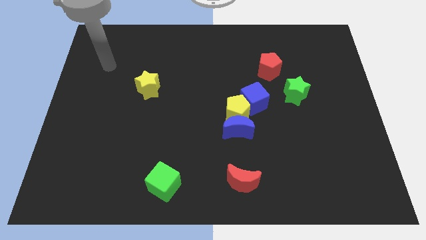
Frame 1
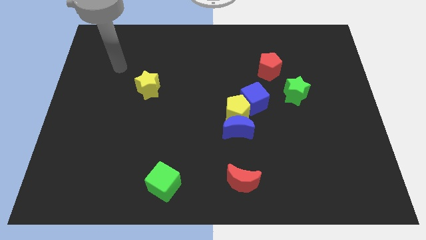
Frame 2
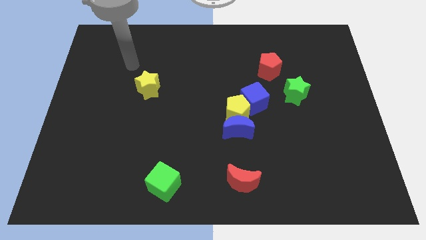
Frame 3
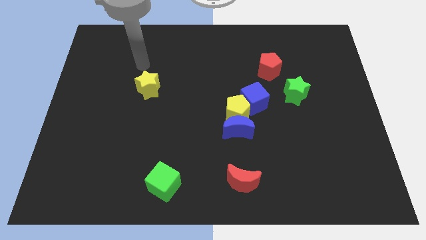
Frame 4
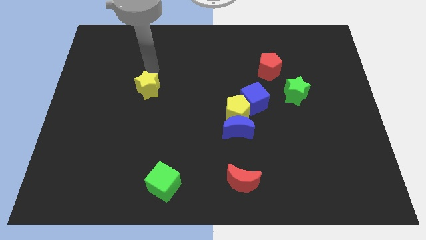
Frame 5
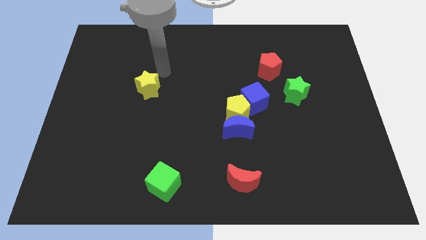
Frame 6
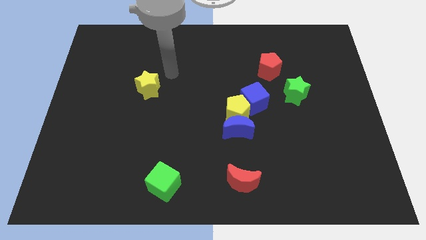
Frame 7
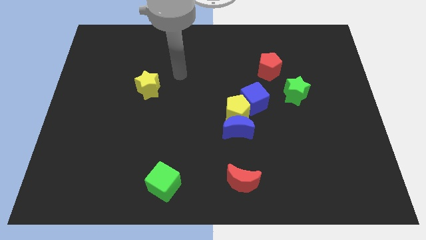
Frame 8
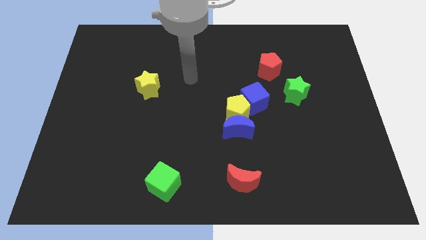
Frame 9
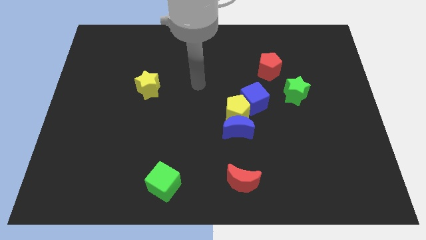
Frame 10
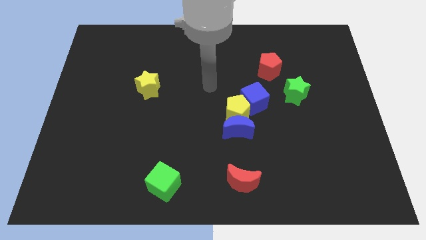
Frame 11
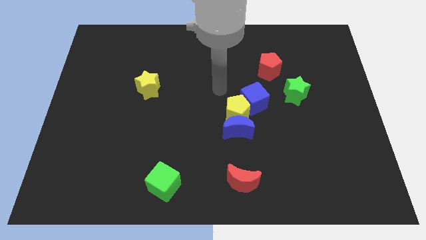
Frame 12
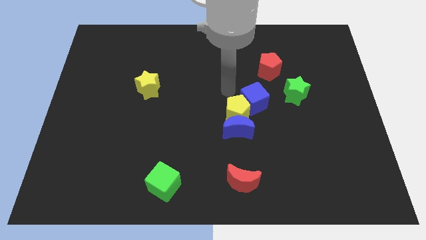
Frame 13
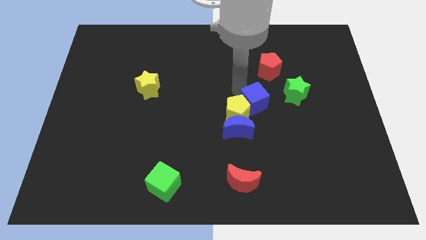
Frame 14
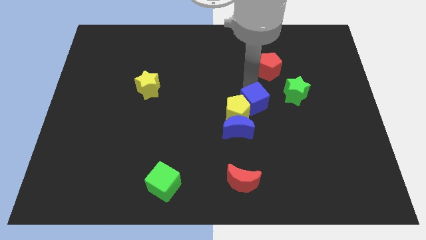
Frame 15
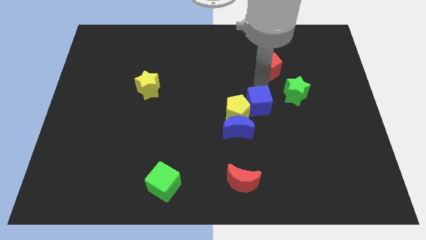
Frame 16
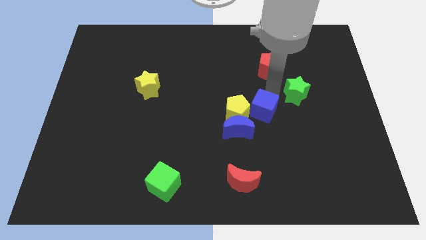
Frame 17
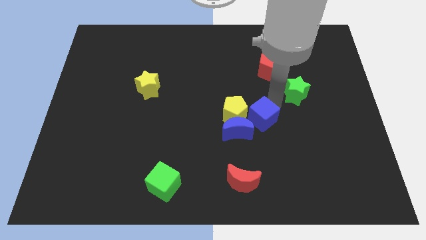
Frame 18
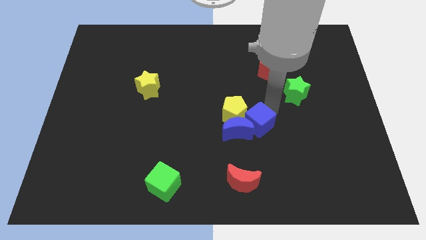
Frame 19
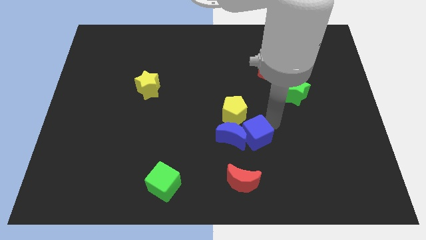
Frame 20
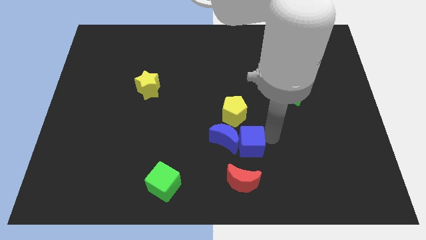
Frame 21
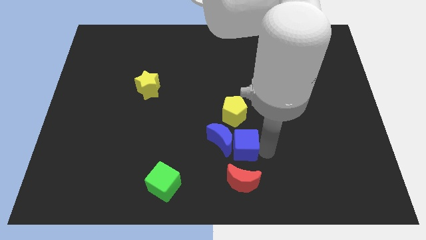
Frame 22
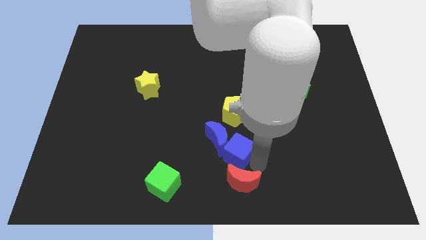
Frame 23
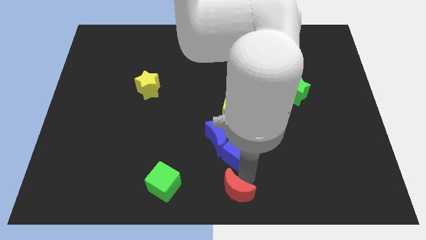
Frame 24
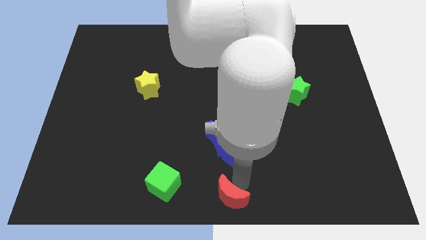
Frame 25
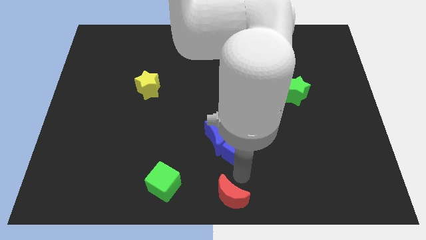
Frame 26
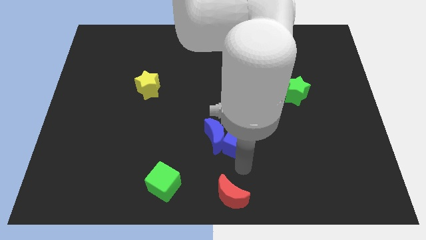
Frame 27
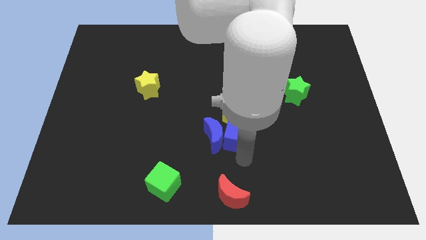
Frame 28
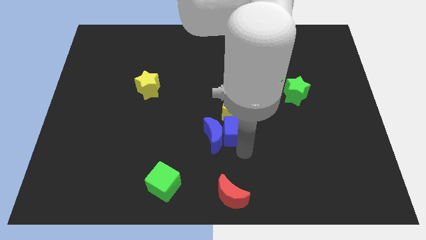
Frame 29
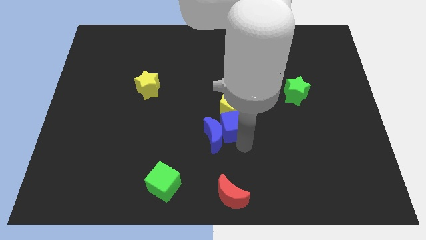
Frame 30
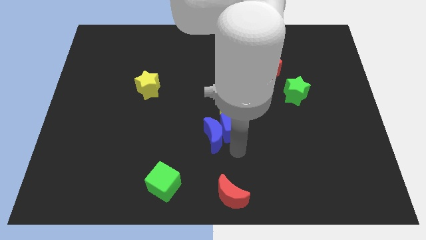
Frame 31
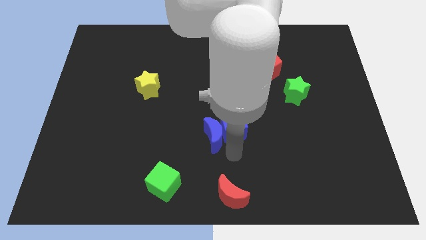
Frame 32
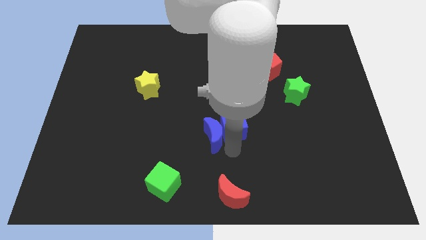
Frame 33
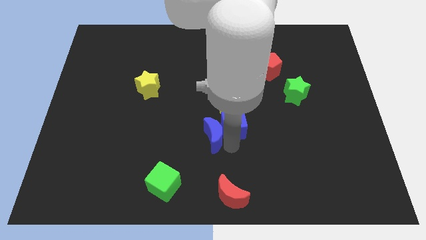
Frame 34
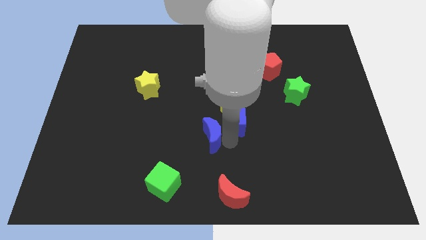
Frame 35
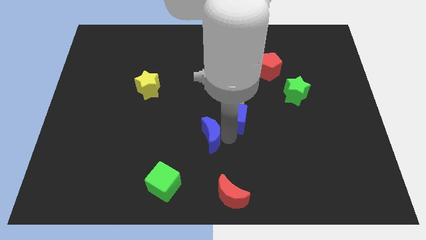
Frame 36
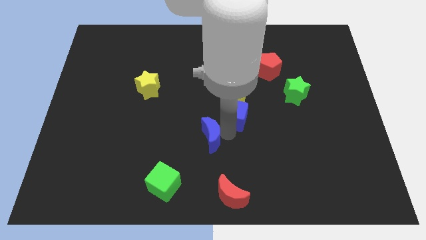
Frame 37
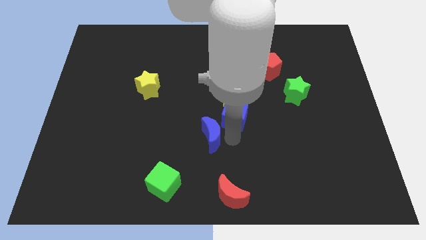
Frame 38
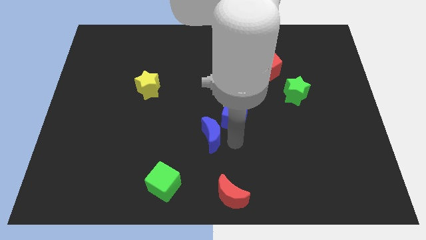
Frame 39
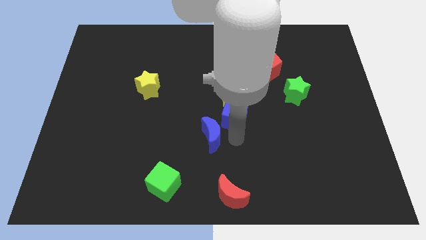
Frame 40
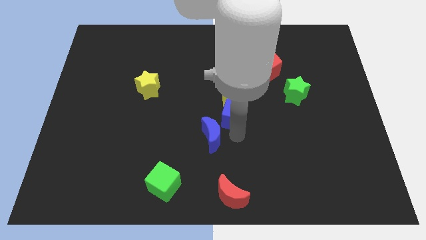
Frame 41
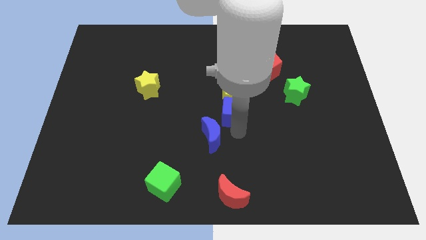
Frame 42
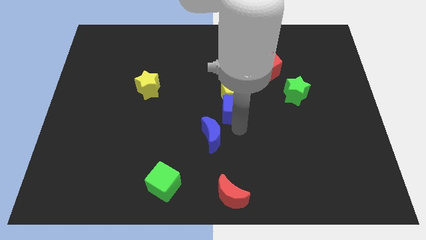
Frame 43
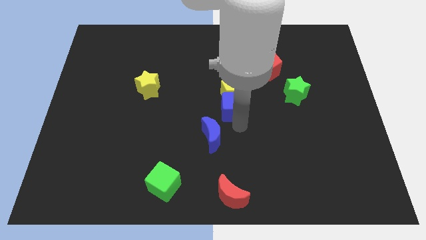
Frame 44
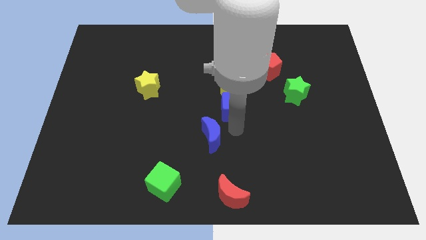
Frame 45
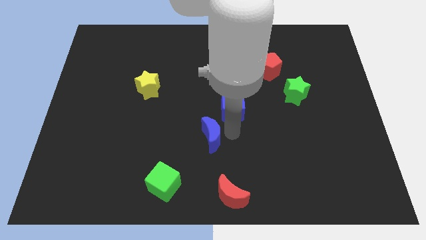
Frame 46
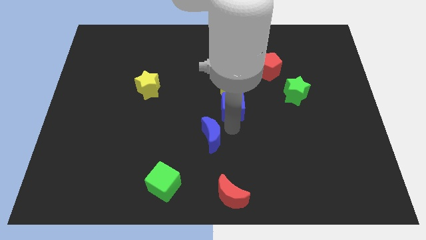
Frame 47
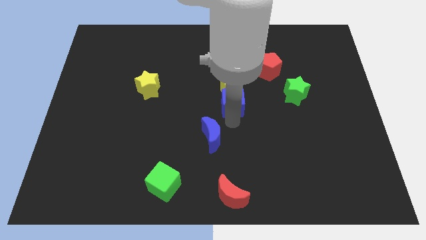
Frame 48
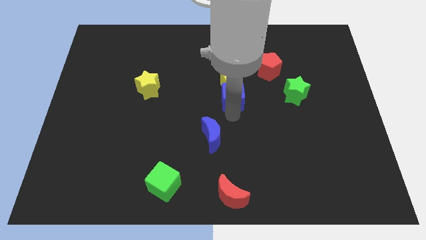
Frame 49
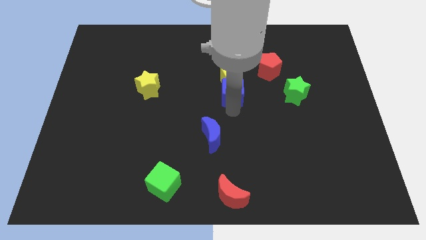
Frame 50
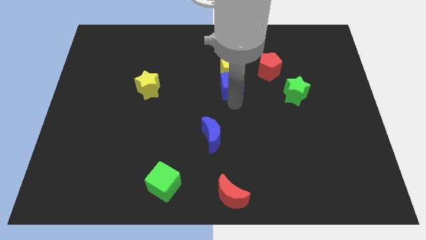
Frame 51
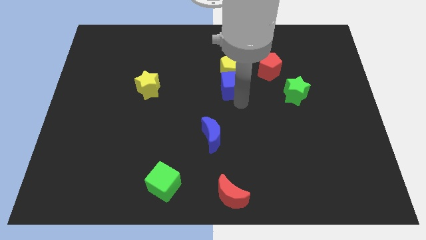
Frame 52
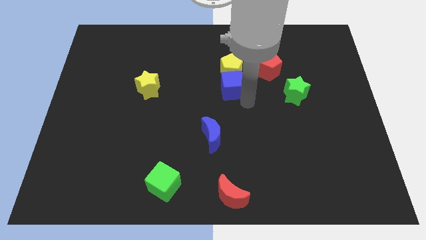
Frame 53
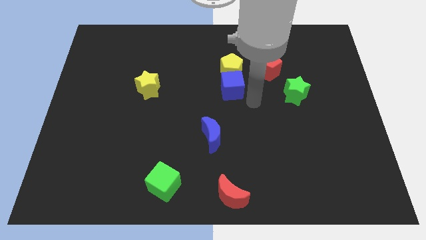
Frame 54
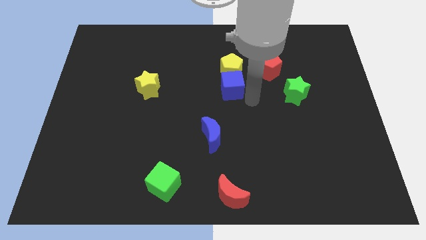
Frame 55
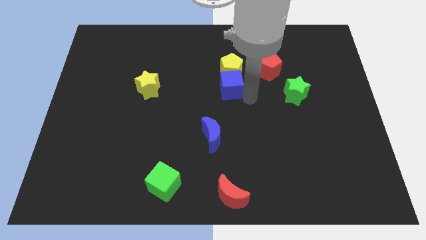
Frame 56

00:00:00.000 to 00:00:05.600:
move the blue cube a bit upwards and to the left

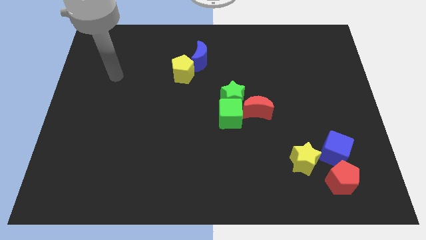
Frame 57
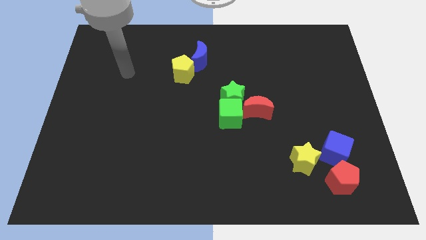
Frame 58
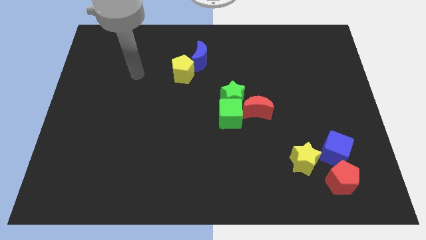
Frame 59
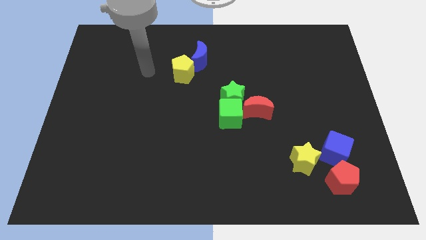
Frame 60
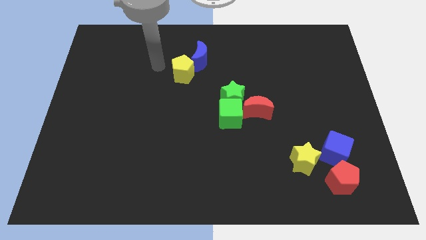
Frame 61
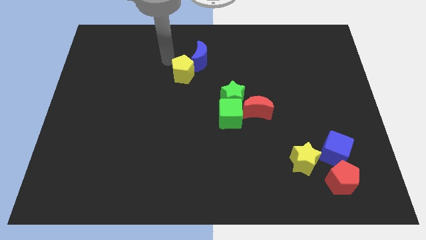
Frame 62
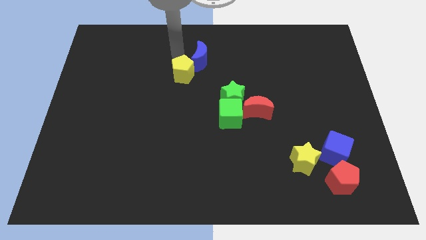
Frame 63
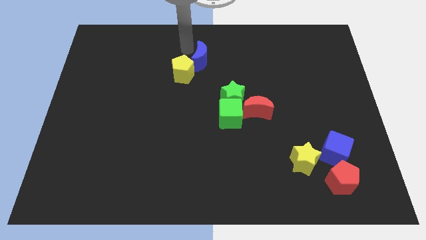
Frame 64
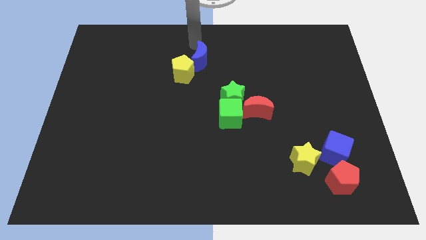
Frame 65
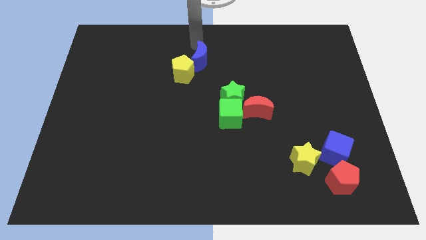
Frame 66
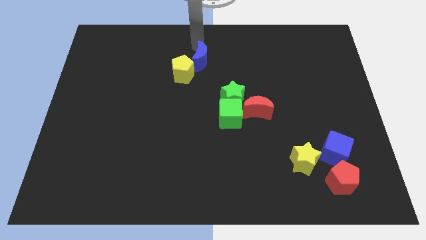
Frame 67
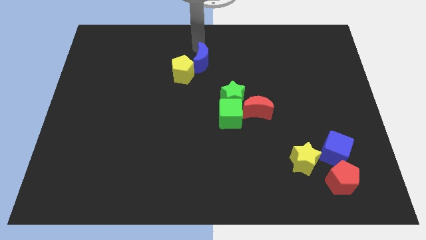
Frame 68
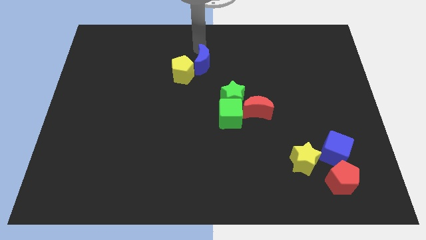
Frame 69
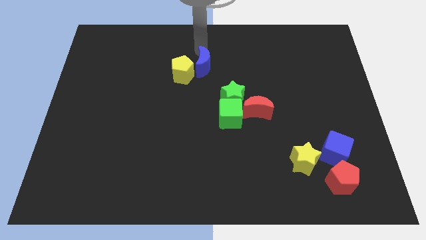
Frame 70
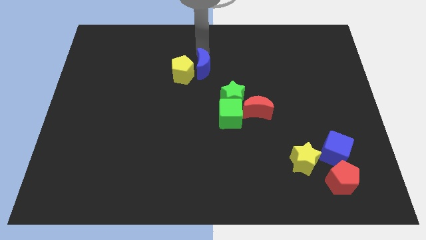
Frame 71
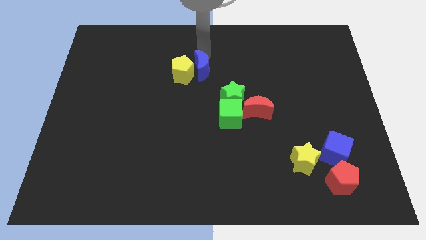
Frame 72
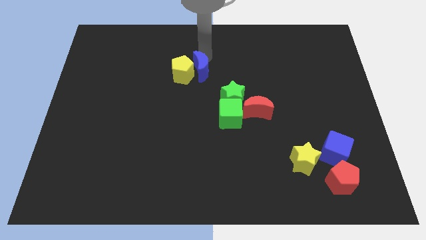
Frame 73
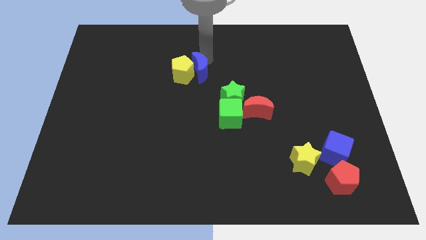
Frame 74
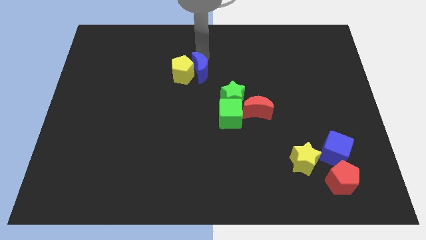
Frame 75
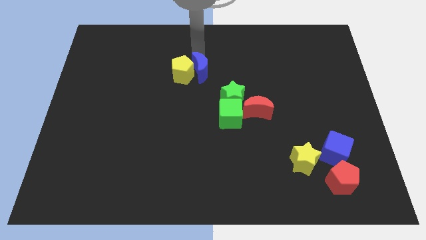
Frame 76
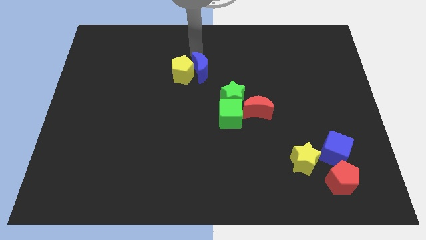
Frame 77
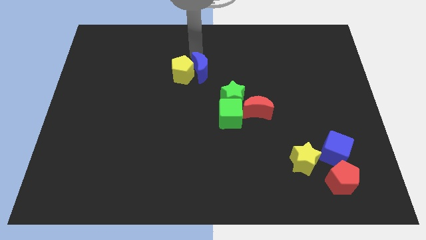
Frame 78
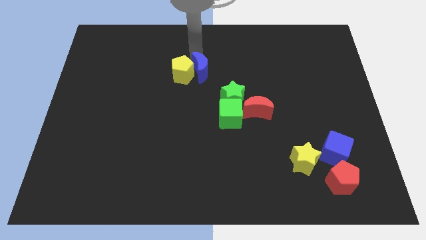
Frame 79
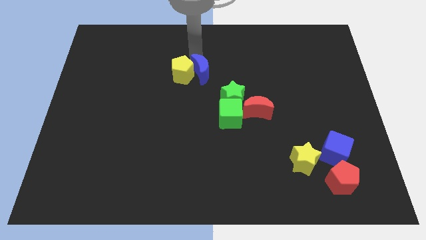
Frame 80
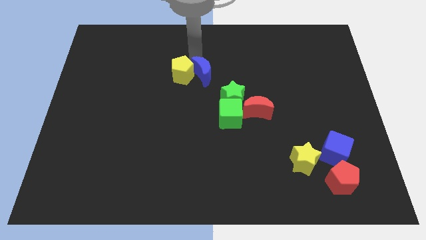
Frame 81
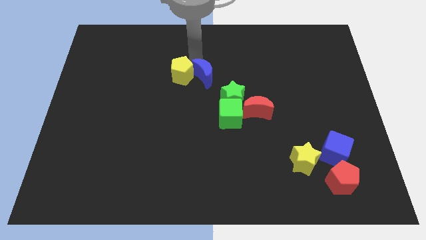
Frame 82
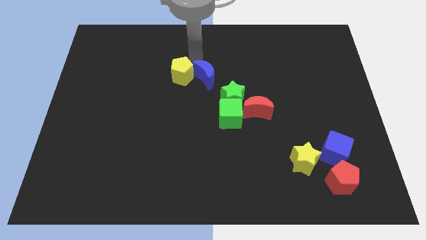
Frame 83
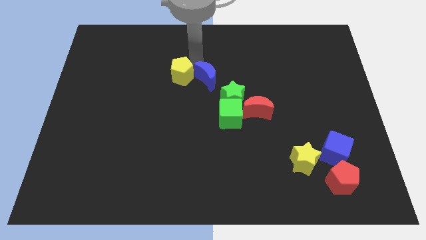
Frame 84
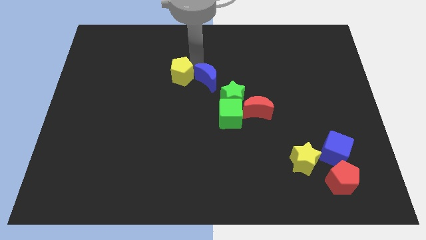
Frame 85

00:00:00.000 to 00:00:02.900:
move the blue moon somewhat downwards
